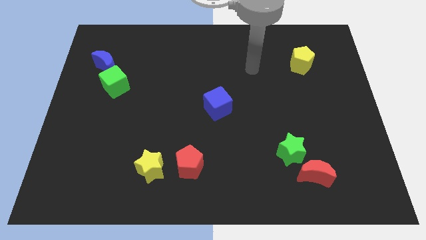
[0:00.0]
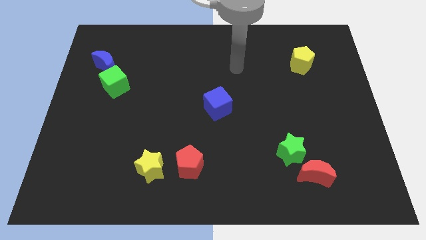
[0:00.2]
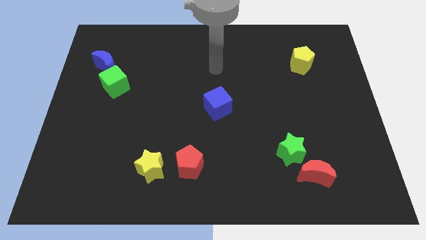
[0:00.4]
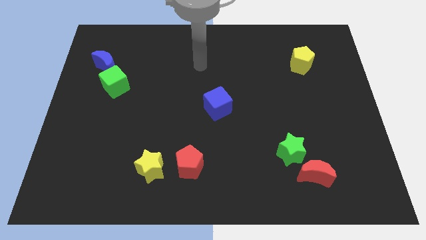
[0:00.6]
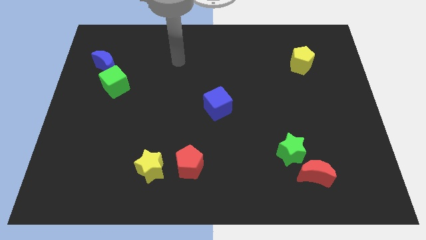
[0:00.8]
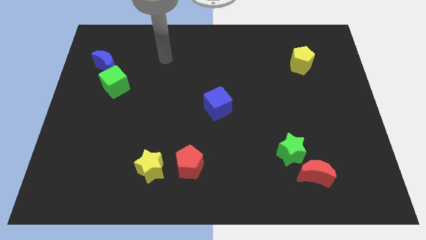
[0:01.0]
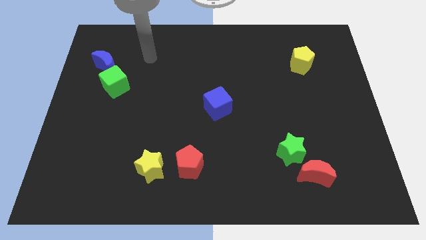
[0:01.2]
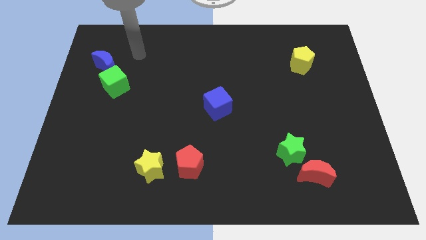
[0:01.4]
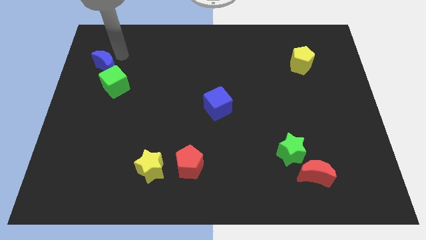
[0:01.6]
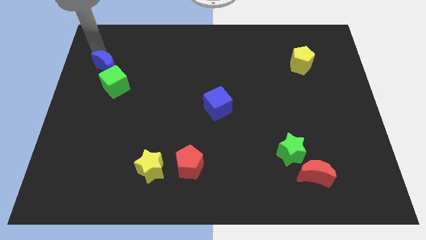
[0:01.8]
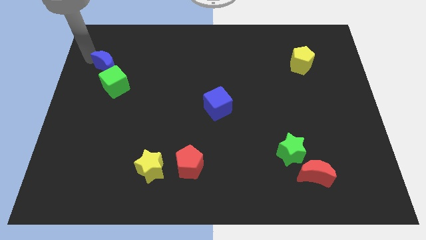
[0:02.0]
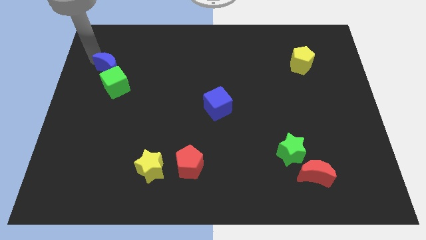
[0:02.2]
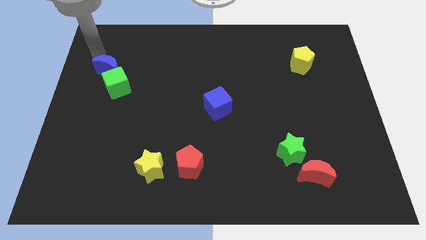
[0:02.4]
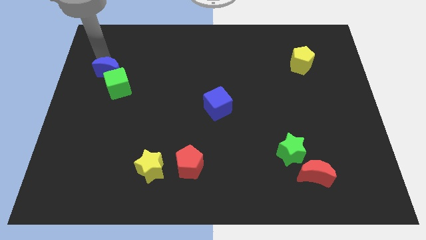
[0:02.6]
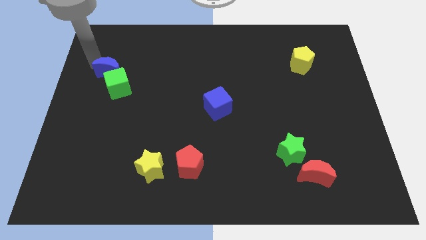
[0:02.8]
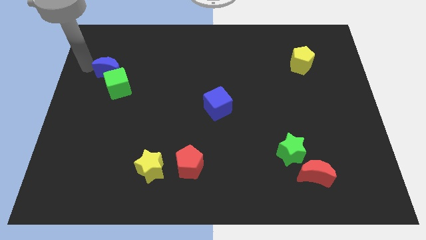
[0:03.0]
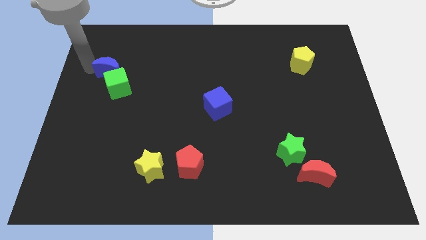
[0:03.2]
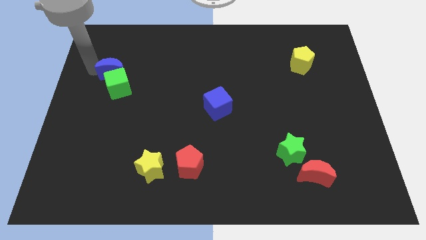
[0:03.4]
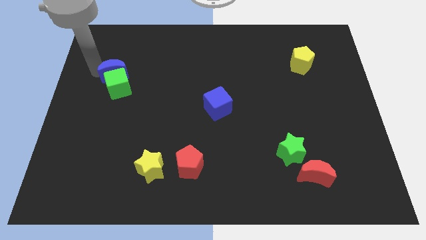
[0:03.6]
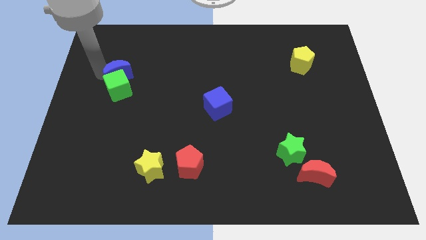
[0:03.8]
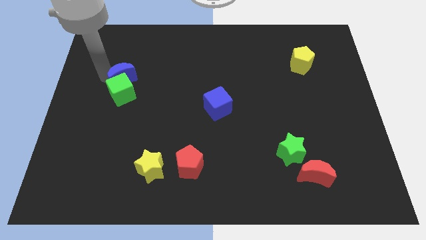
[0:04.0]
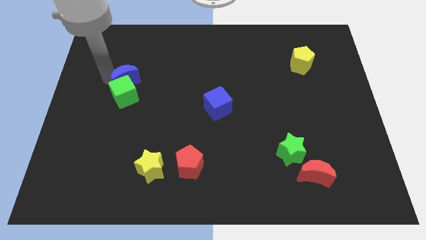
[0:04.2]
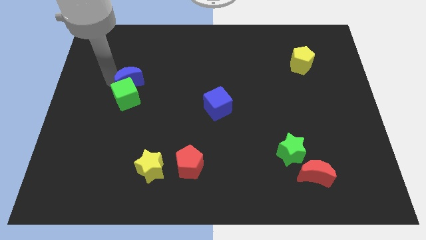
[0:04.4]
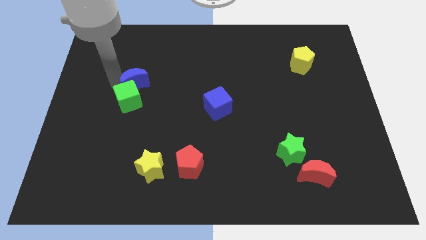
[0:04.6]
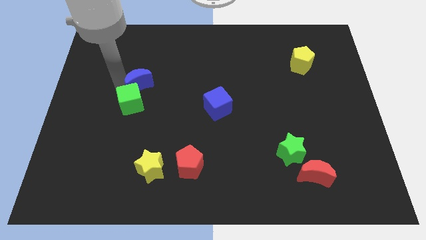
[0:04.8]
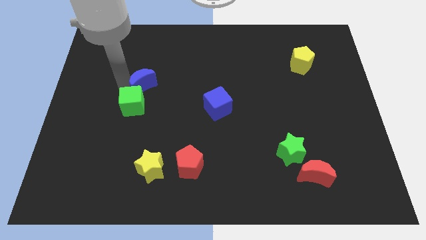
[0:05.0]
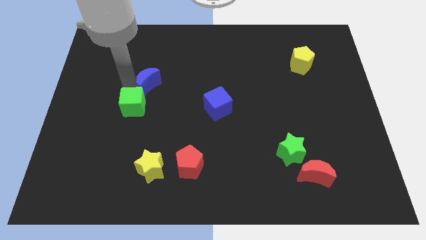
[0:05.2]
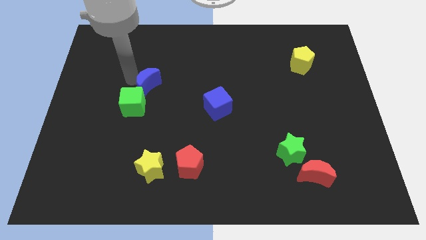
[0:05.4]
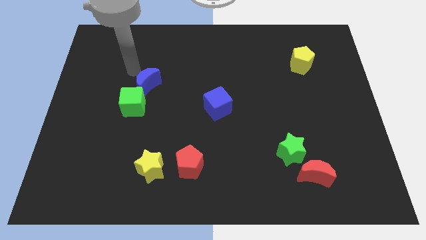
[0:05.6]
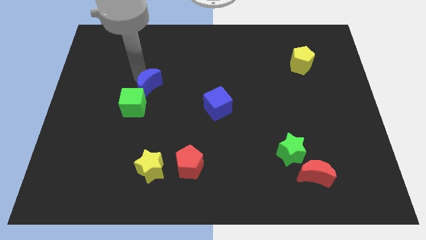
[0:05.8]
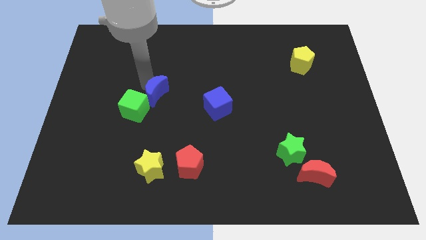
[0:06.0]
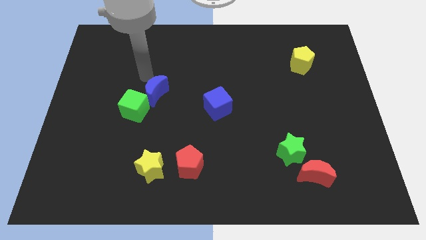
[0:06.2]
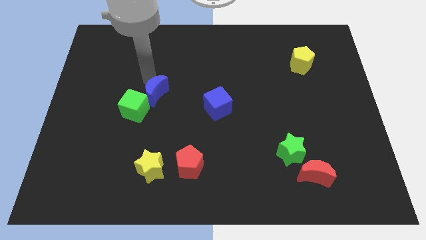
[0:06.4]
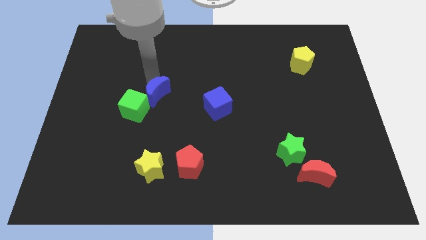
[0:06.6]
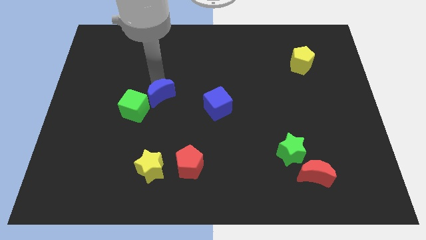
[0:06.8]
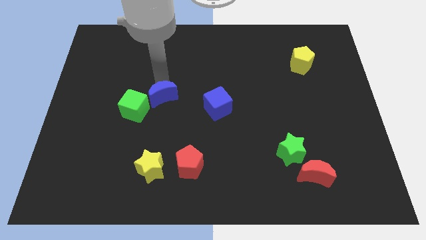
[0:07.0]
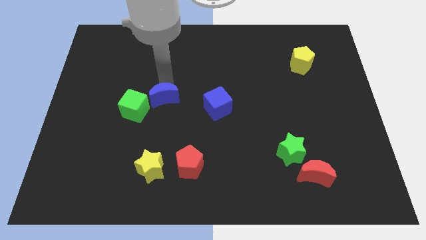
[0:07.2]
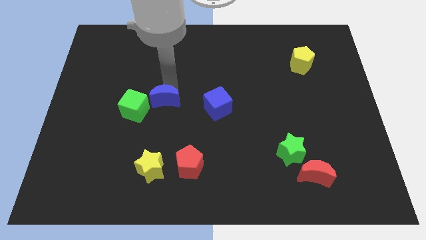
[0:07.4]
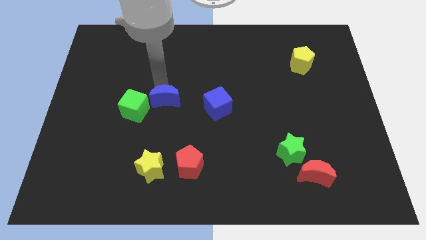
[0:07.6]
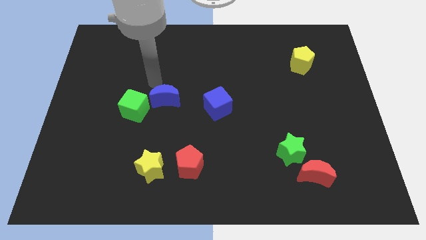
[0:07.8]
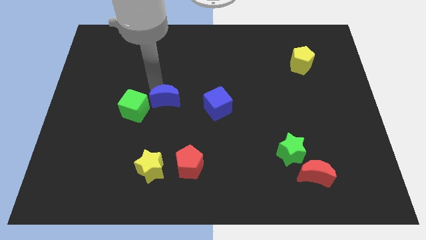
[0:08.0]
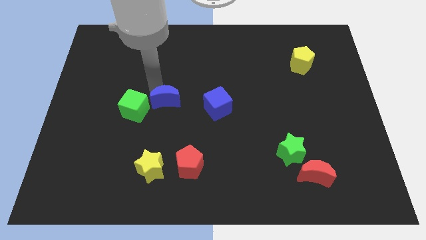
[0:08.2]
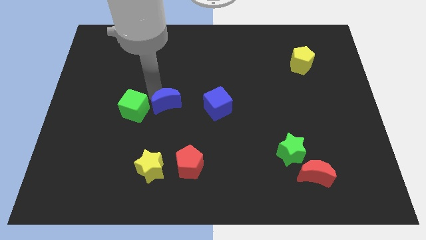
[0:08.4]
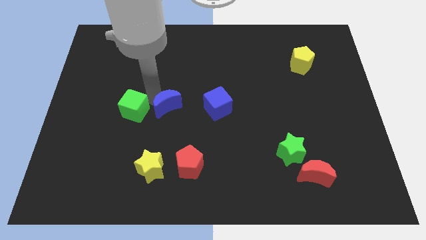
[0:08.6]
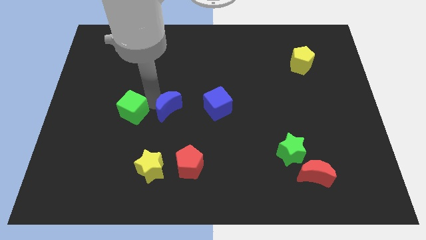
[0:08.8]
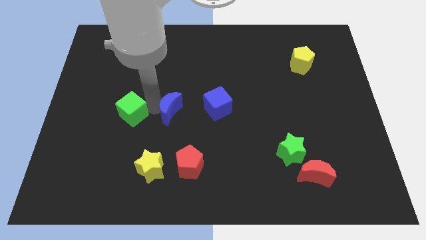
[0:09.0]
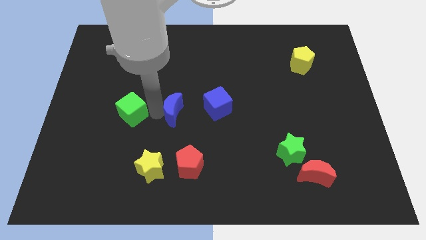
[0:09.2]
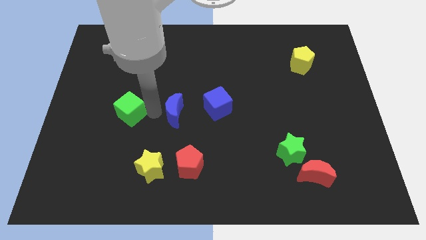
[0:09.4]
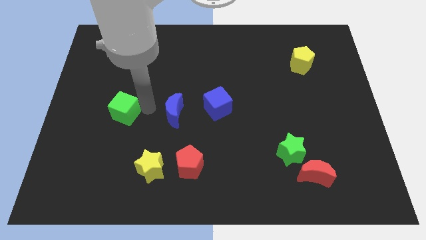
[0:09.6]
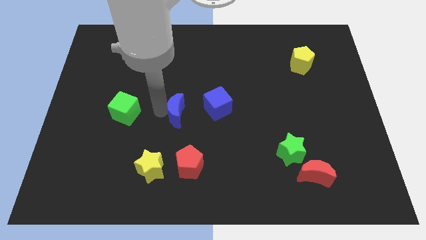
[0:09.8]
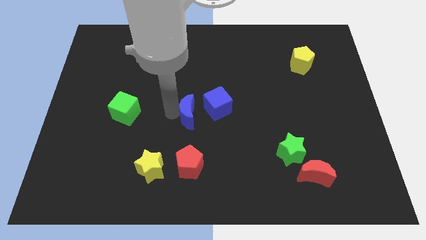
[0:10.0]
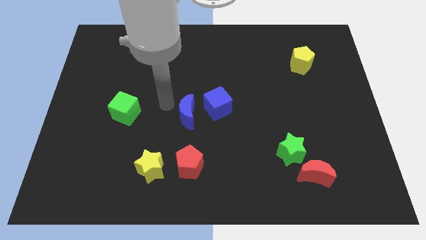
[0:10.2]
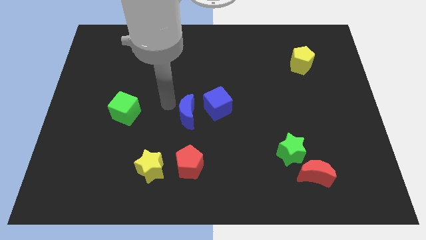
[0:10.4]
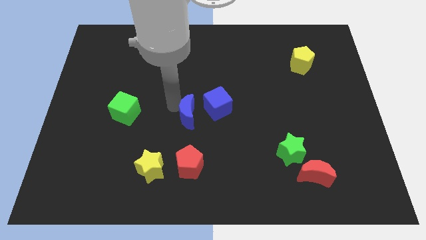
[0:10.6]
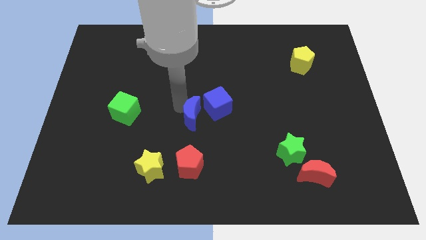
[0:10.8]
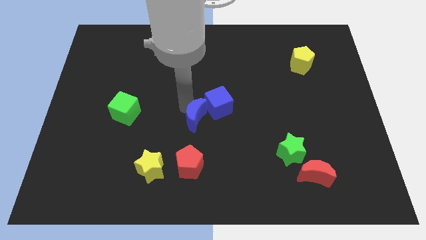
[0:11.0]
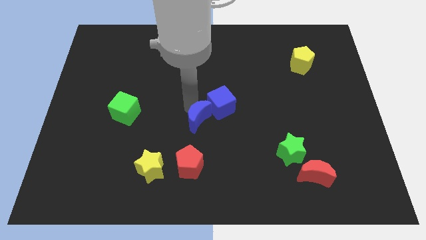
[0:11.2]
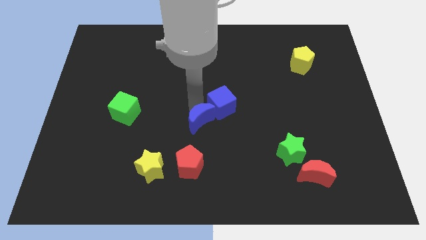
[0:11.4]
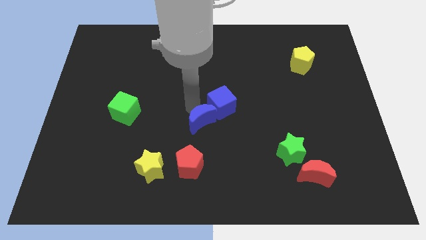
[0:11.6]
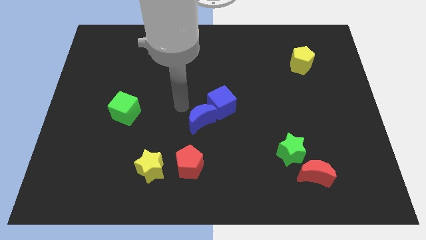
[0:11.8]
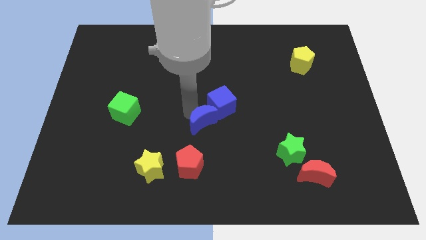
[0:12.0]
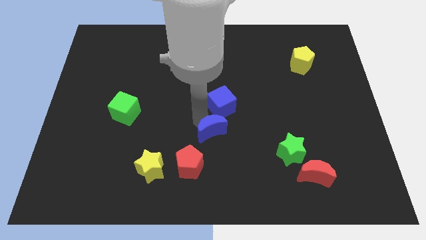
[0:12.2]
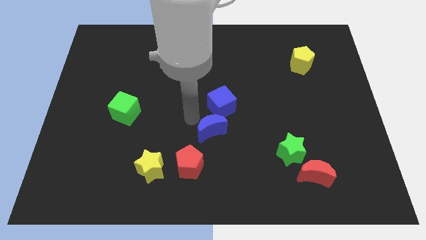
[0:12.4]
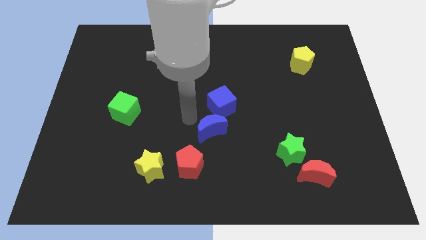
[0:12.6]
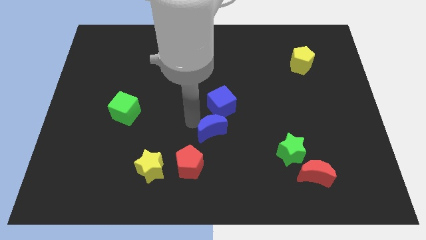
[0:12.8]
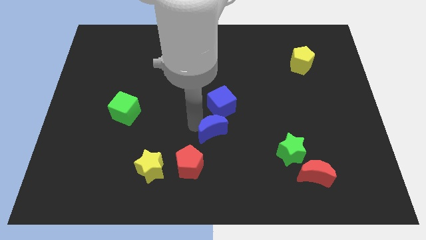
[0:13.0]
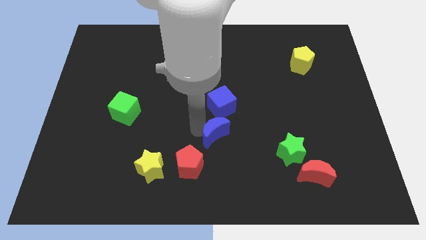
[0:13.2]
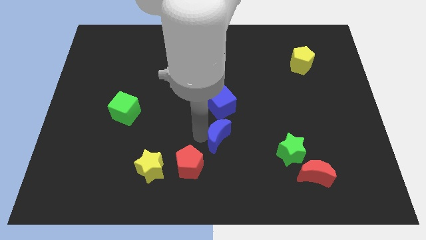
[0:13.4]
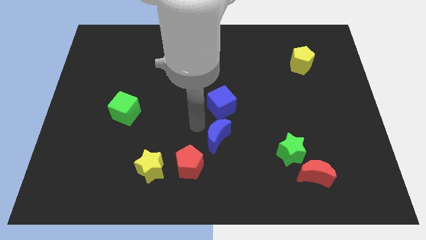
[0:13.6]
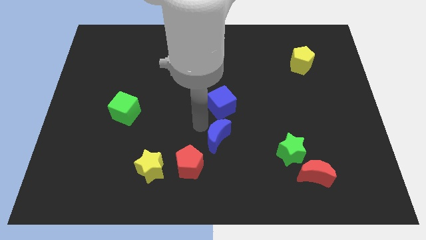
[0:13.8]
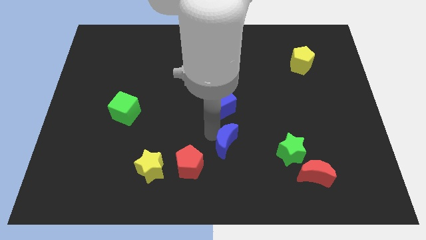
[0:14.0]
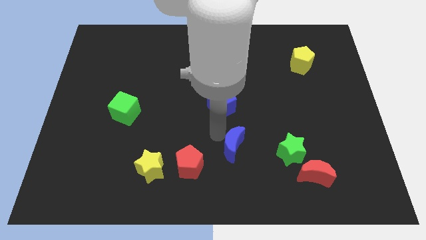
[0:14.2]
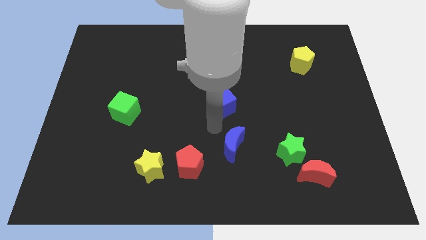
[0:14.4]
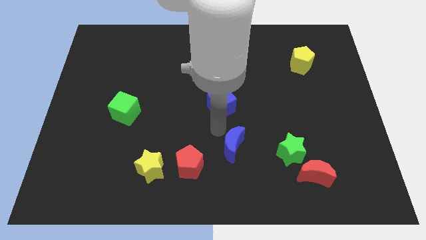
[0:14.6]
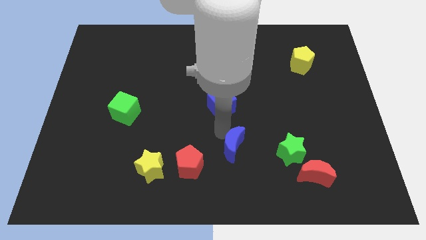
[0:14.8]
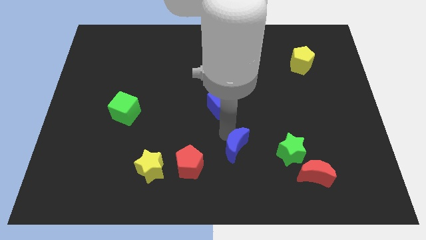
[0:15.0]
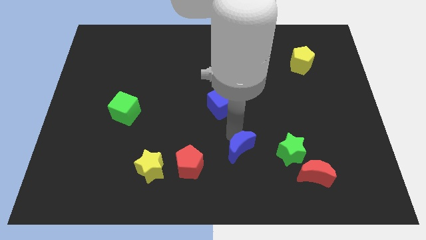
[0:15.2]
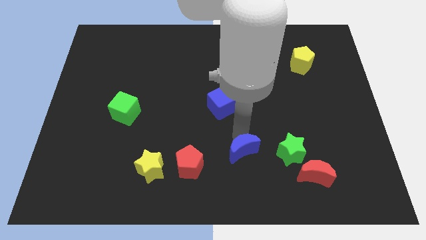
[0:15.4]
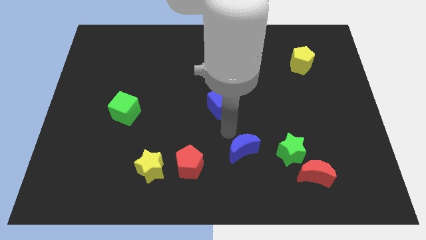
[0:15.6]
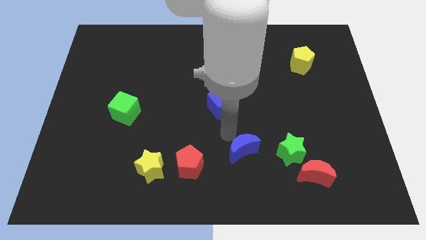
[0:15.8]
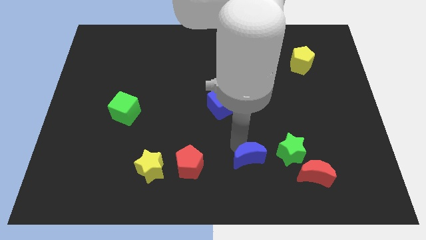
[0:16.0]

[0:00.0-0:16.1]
push the blue moon to the left side of the red moon
